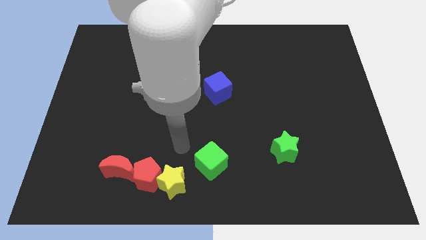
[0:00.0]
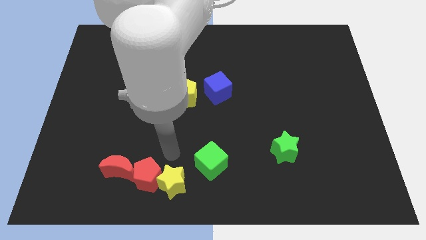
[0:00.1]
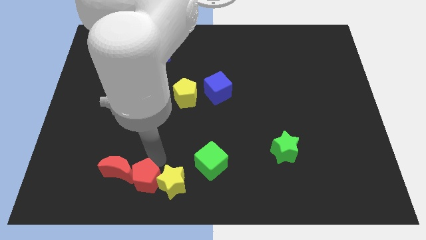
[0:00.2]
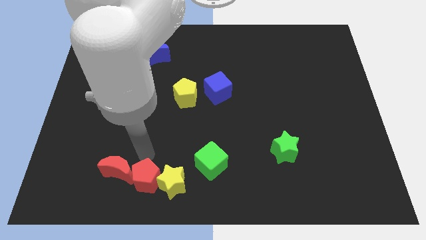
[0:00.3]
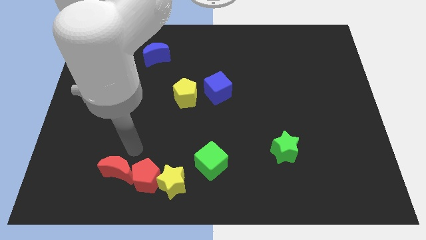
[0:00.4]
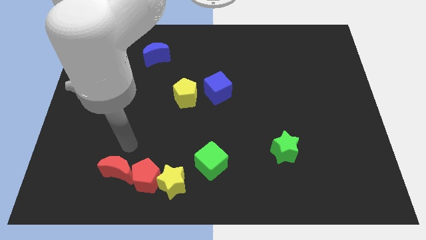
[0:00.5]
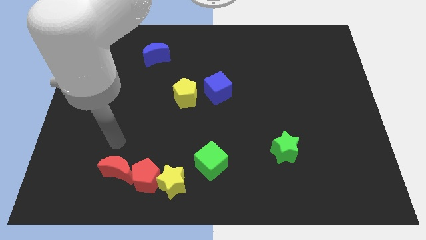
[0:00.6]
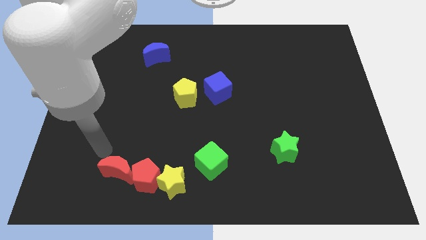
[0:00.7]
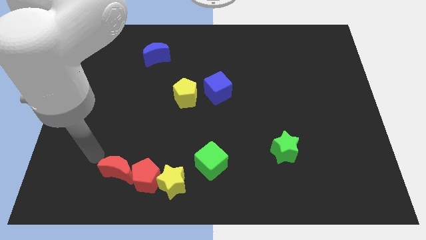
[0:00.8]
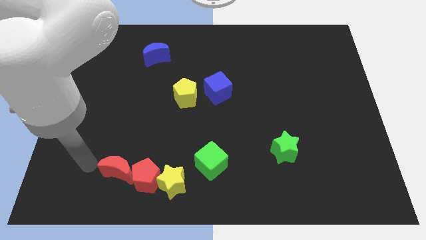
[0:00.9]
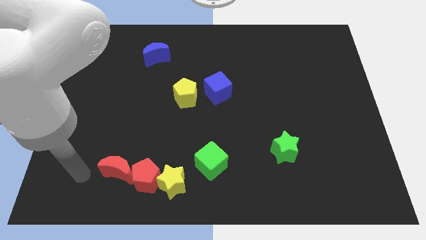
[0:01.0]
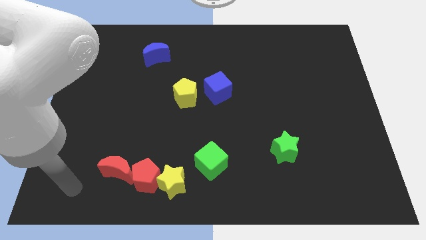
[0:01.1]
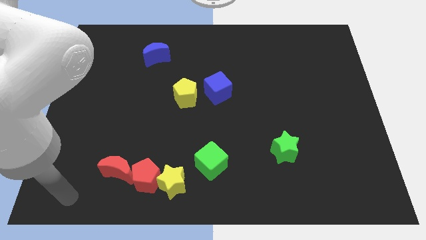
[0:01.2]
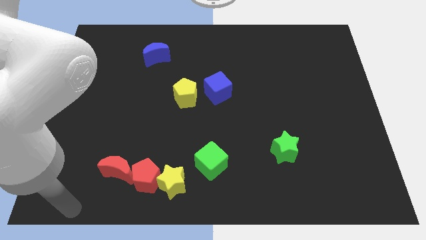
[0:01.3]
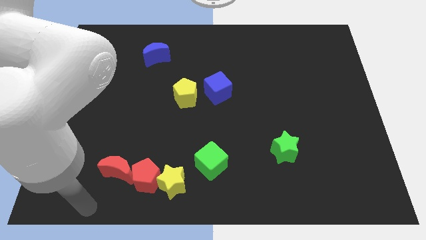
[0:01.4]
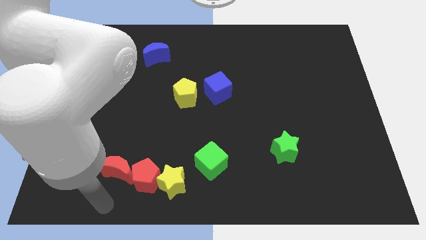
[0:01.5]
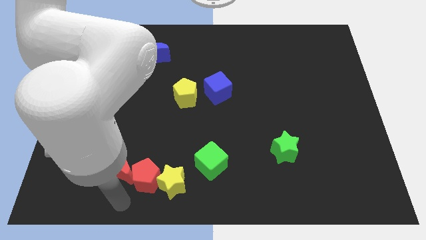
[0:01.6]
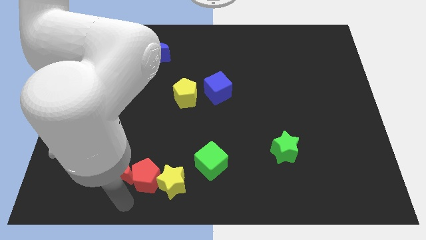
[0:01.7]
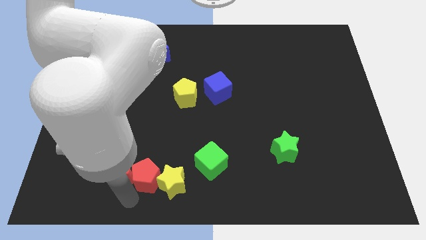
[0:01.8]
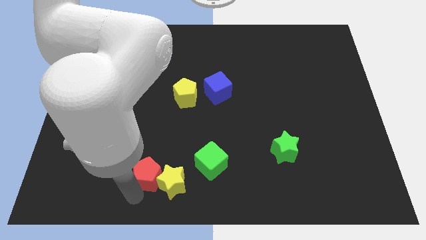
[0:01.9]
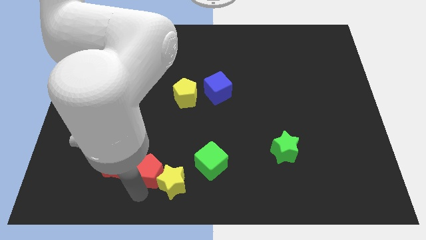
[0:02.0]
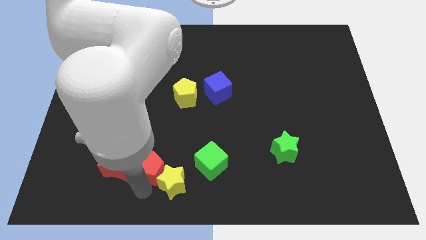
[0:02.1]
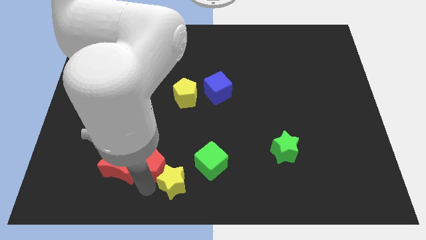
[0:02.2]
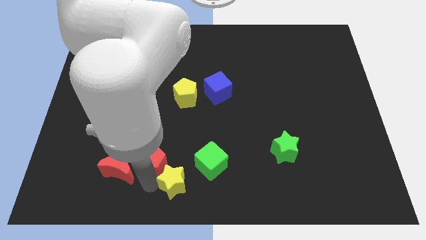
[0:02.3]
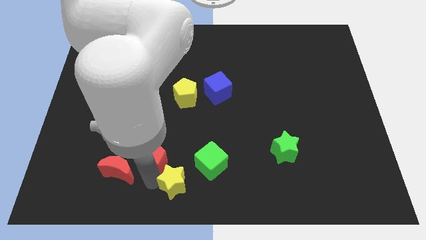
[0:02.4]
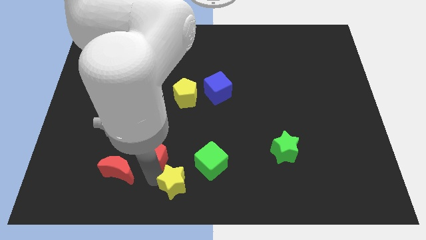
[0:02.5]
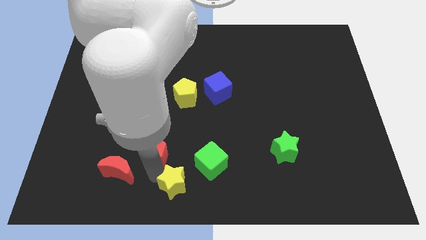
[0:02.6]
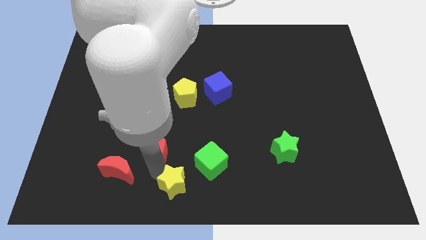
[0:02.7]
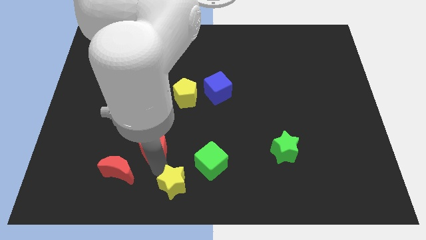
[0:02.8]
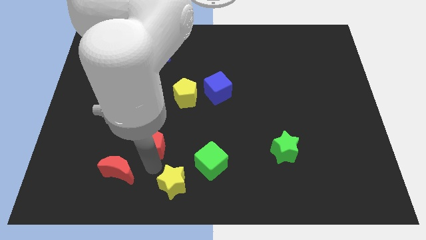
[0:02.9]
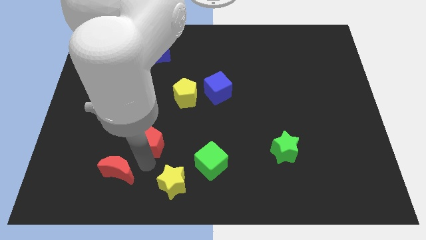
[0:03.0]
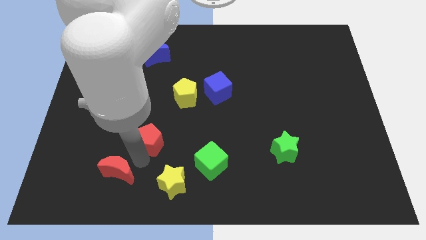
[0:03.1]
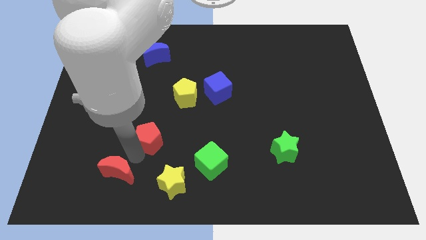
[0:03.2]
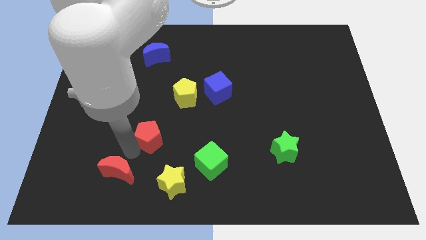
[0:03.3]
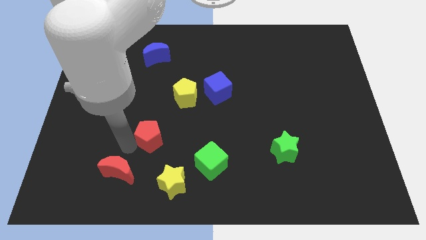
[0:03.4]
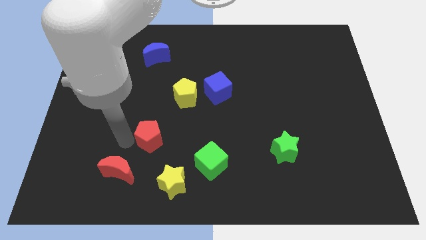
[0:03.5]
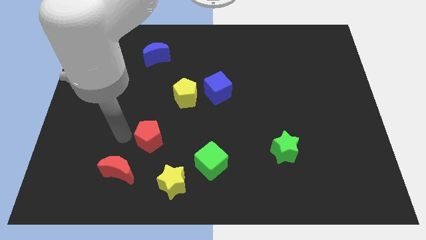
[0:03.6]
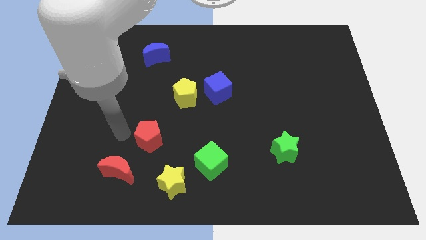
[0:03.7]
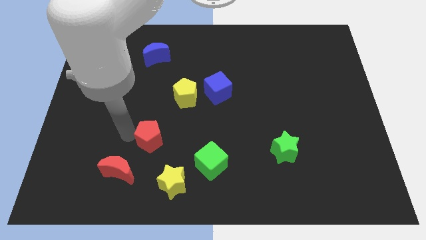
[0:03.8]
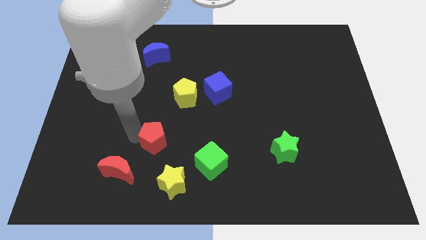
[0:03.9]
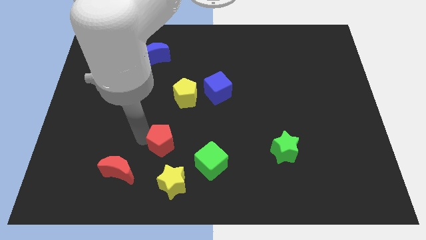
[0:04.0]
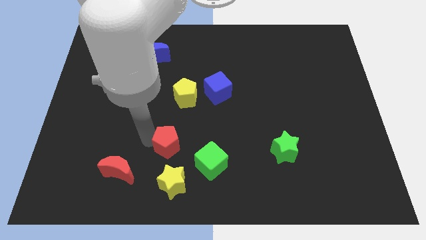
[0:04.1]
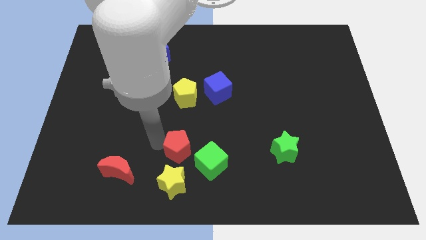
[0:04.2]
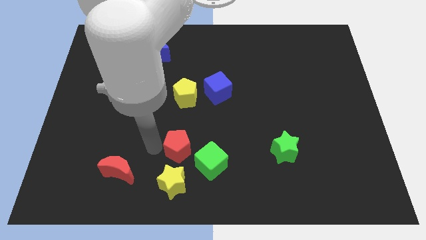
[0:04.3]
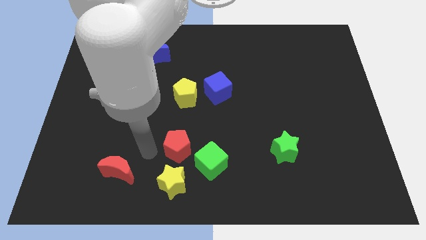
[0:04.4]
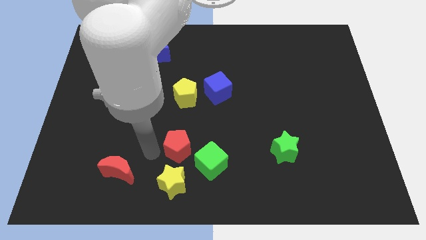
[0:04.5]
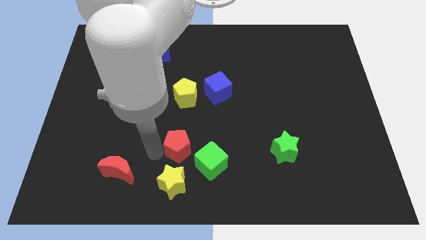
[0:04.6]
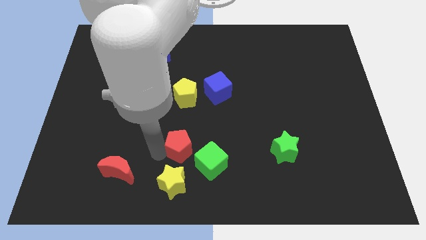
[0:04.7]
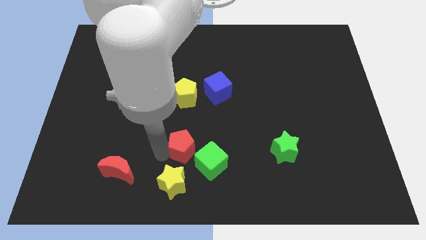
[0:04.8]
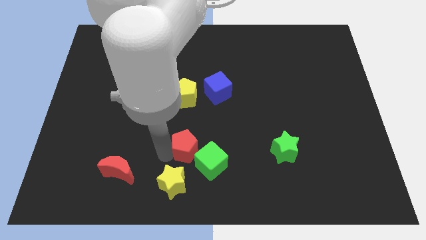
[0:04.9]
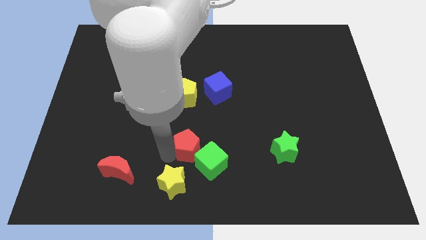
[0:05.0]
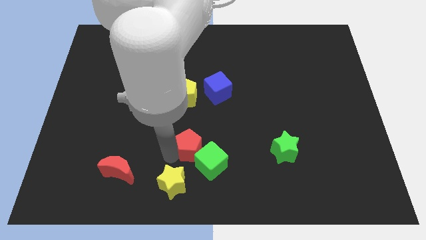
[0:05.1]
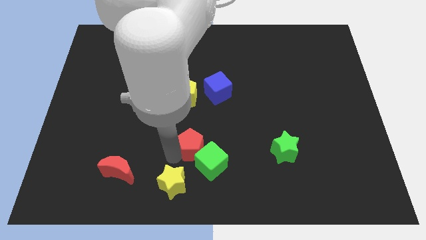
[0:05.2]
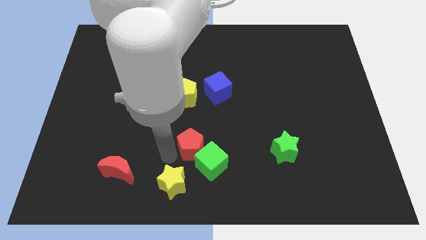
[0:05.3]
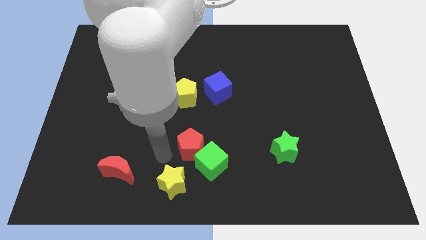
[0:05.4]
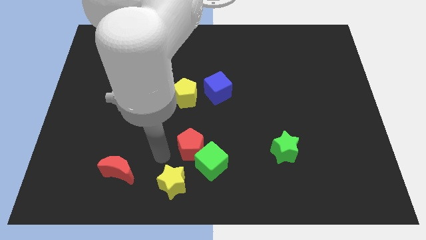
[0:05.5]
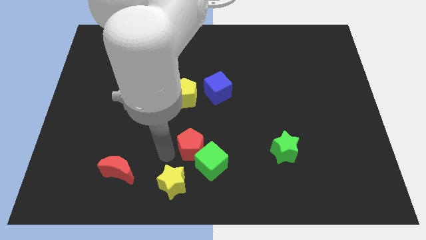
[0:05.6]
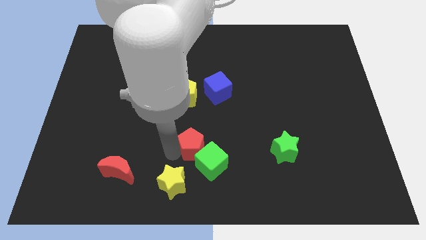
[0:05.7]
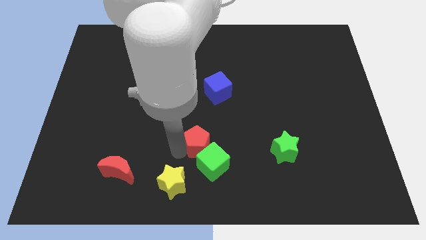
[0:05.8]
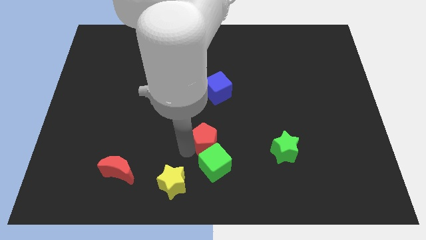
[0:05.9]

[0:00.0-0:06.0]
slide the red pentagon to the bottom of the blue cube
